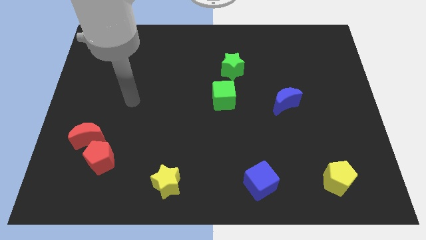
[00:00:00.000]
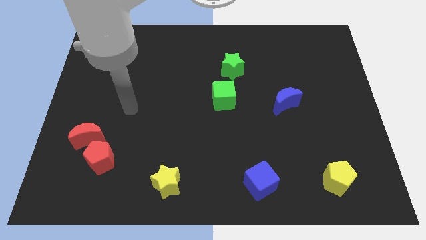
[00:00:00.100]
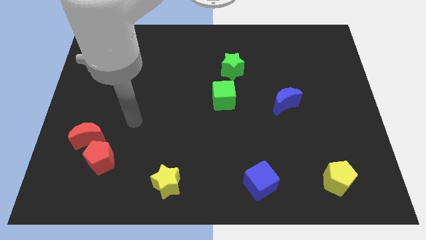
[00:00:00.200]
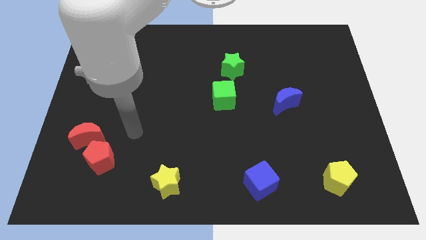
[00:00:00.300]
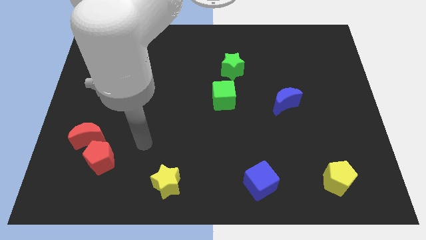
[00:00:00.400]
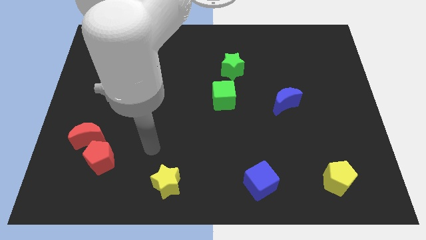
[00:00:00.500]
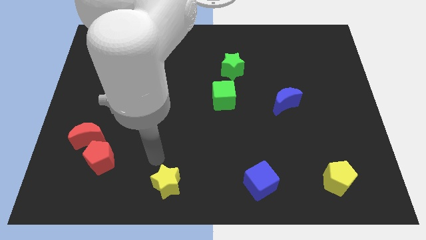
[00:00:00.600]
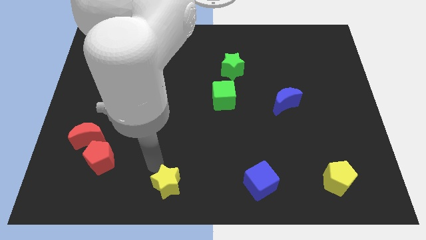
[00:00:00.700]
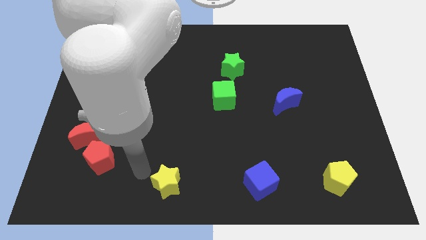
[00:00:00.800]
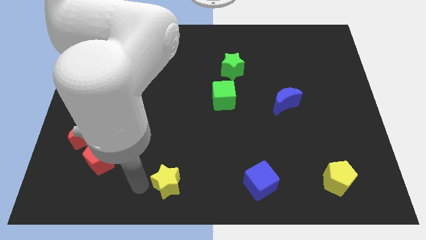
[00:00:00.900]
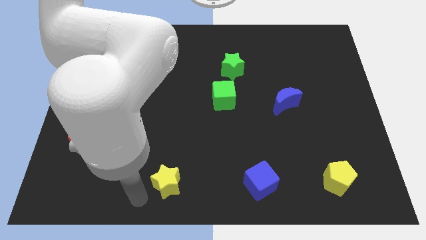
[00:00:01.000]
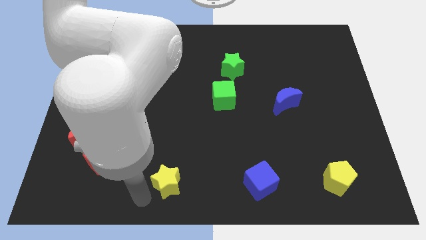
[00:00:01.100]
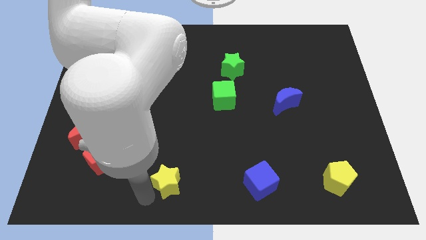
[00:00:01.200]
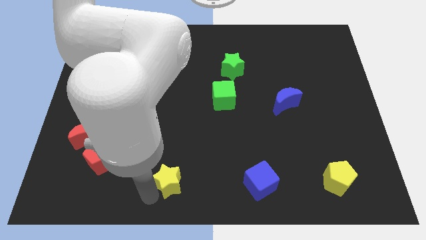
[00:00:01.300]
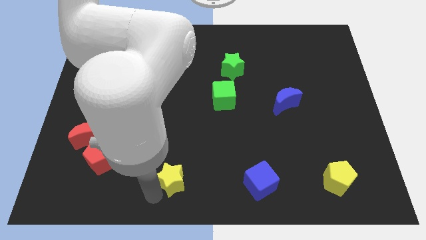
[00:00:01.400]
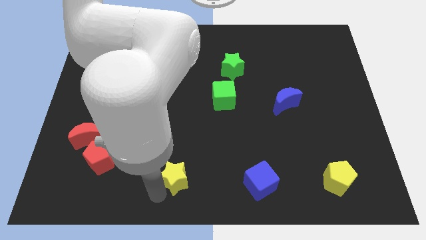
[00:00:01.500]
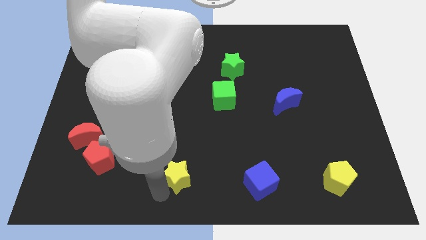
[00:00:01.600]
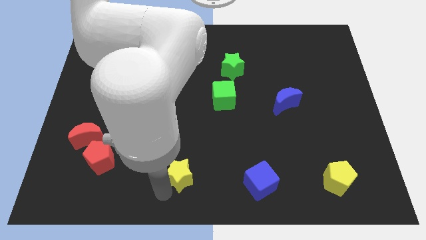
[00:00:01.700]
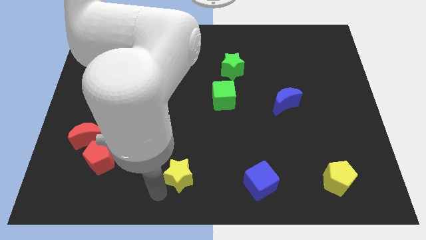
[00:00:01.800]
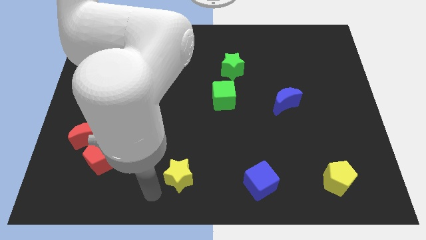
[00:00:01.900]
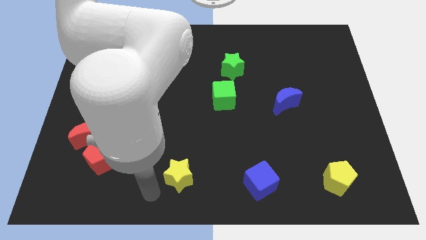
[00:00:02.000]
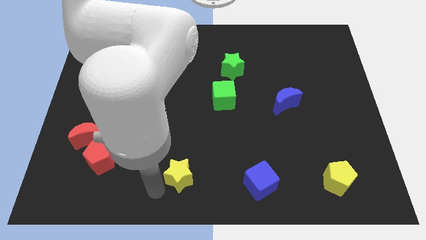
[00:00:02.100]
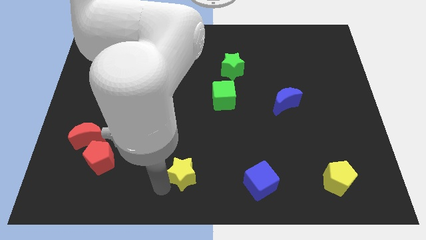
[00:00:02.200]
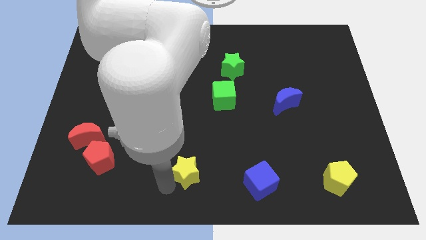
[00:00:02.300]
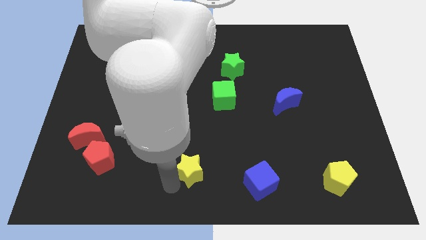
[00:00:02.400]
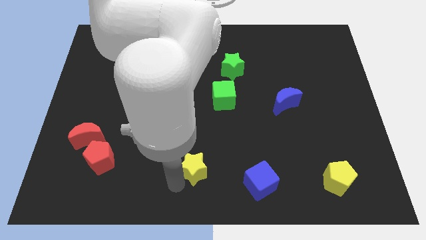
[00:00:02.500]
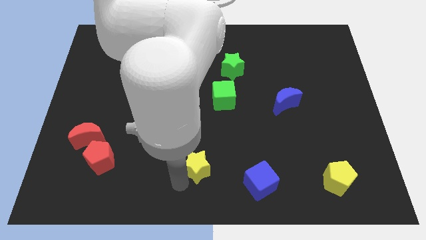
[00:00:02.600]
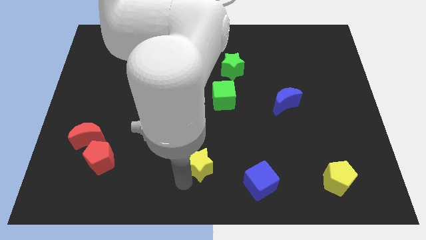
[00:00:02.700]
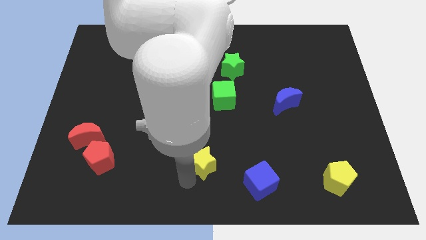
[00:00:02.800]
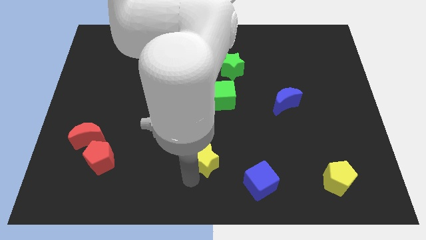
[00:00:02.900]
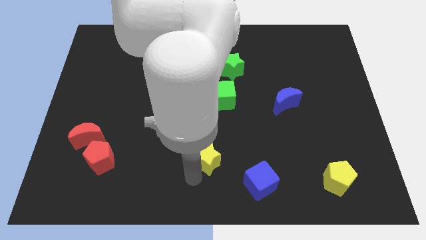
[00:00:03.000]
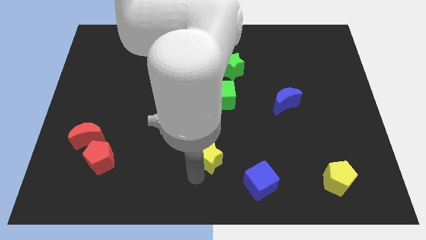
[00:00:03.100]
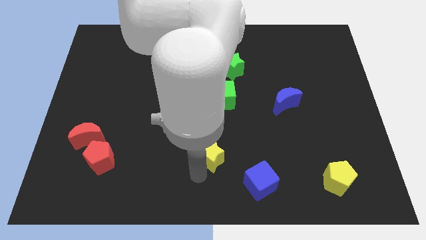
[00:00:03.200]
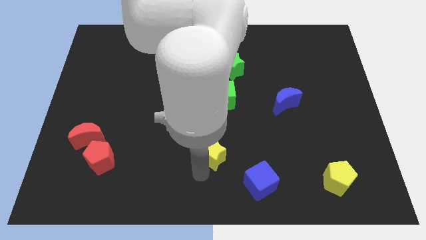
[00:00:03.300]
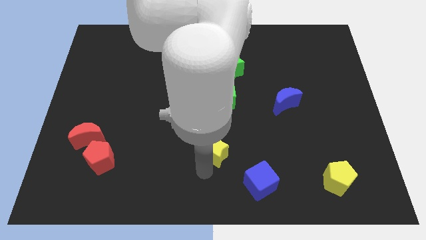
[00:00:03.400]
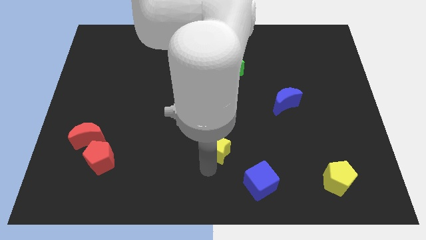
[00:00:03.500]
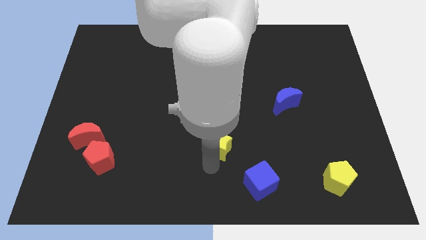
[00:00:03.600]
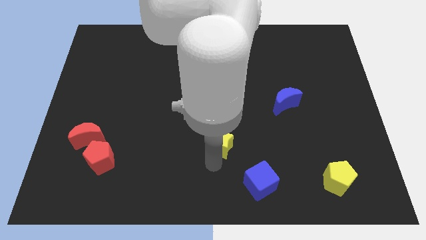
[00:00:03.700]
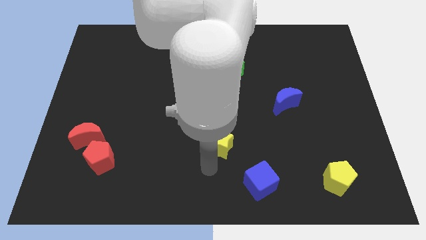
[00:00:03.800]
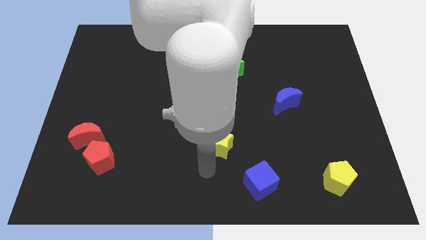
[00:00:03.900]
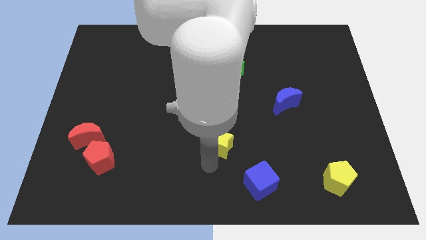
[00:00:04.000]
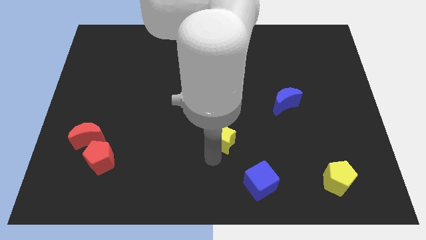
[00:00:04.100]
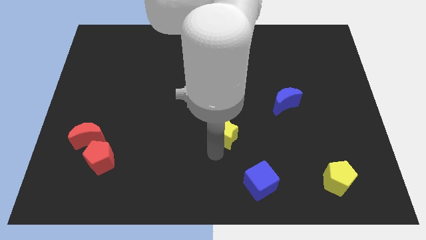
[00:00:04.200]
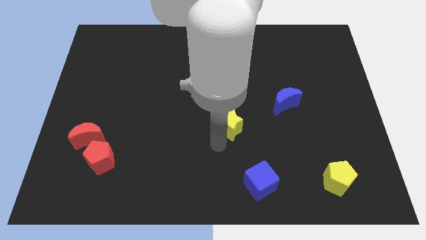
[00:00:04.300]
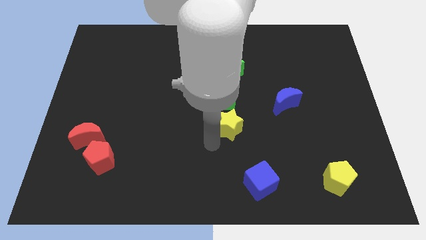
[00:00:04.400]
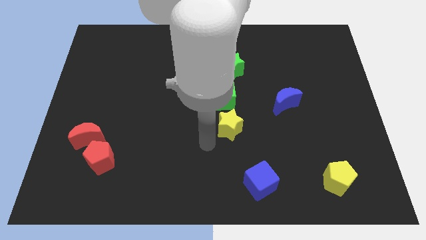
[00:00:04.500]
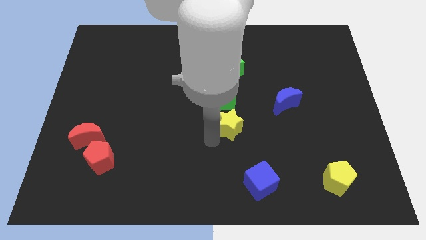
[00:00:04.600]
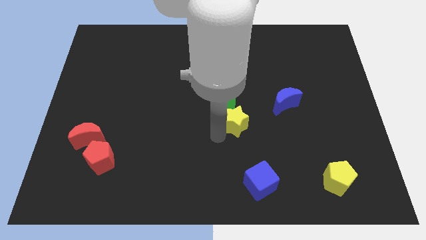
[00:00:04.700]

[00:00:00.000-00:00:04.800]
push the yellow star diagonally upwards and right

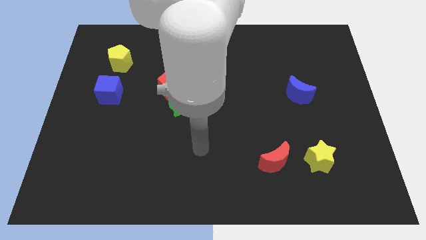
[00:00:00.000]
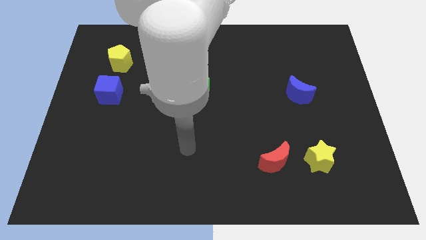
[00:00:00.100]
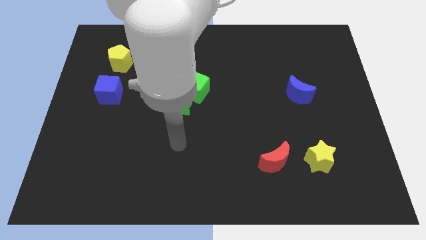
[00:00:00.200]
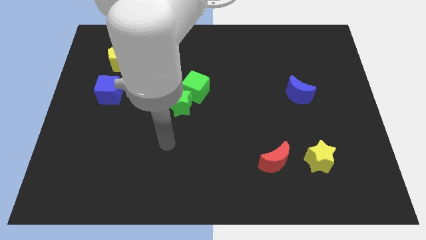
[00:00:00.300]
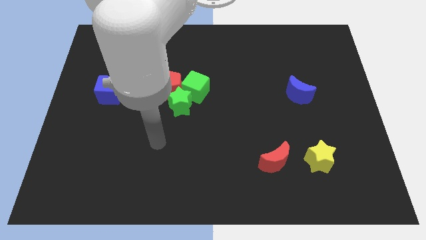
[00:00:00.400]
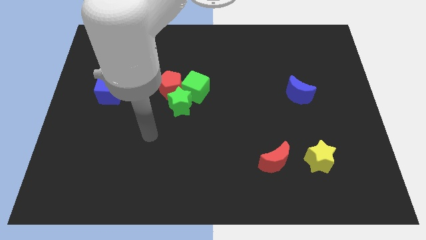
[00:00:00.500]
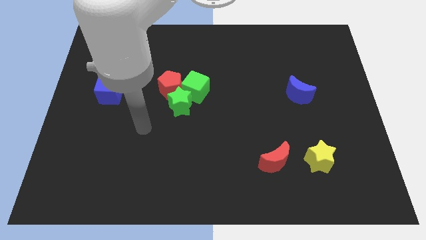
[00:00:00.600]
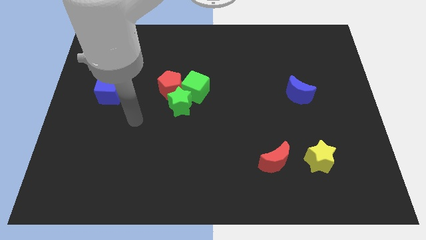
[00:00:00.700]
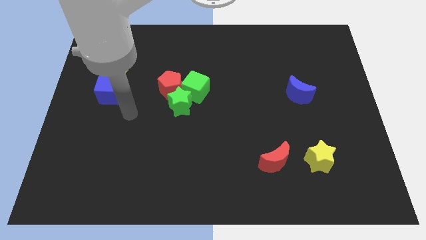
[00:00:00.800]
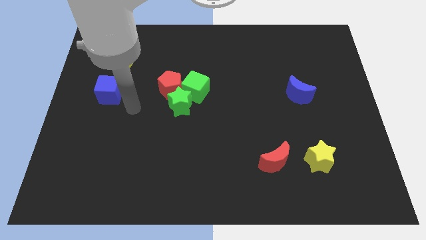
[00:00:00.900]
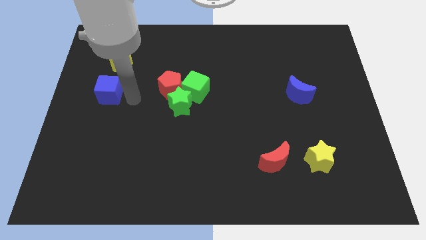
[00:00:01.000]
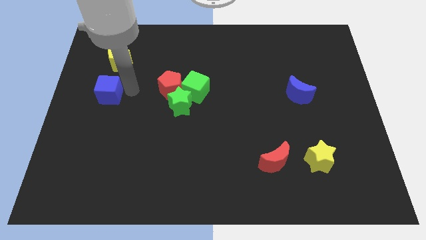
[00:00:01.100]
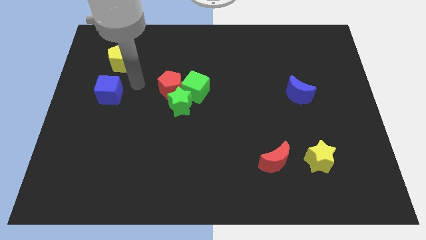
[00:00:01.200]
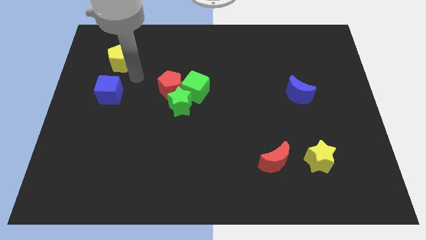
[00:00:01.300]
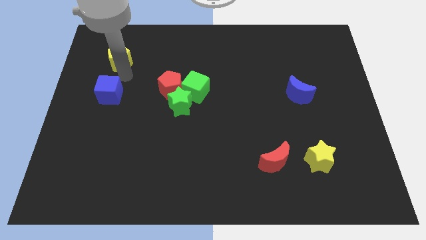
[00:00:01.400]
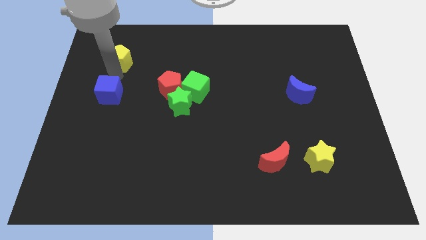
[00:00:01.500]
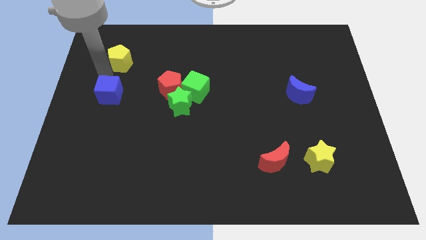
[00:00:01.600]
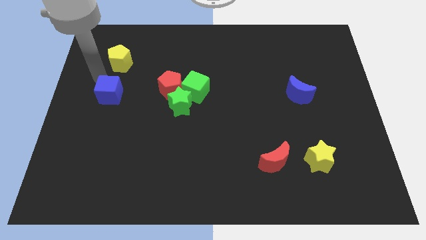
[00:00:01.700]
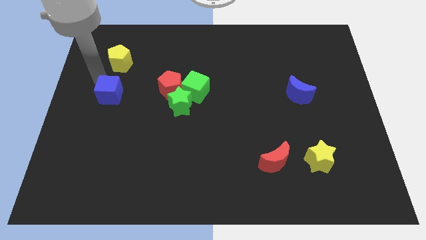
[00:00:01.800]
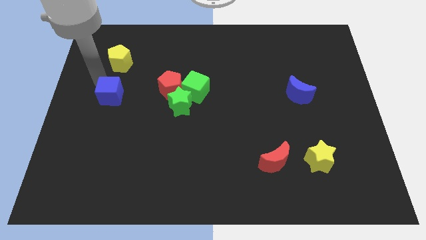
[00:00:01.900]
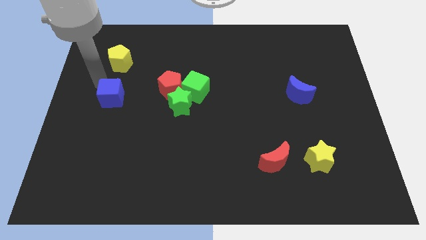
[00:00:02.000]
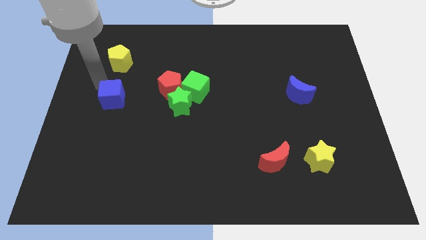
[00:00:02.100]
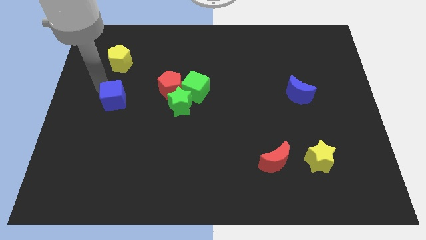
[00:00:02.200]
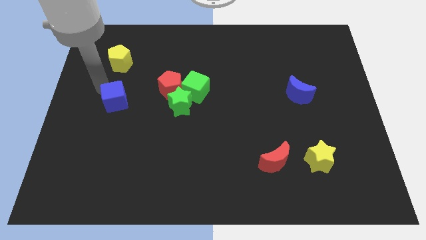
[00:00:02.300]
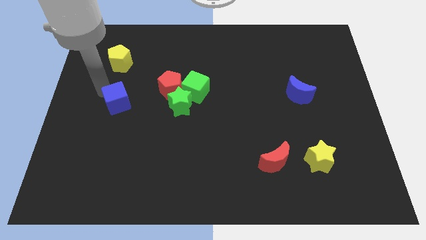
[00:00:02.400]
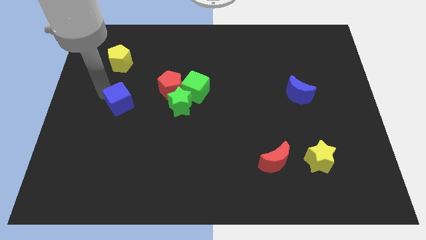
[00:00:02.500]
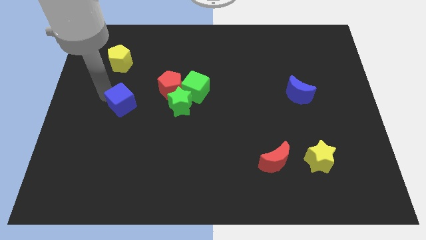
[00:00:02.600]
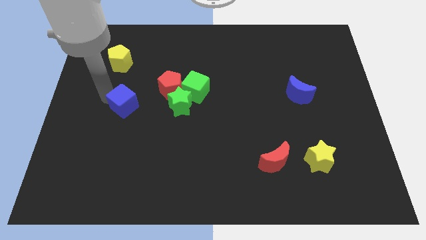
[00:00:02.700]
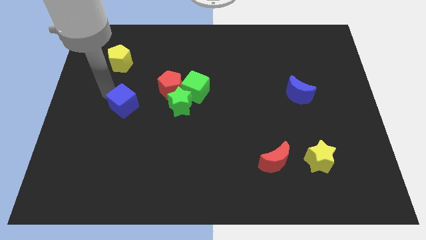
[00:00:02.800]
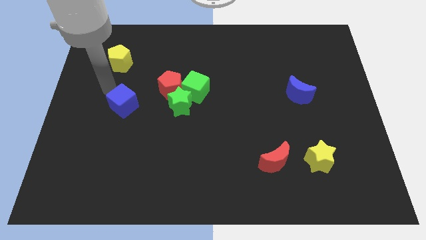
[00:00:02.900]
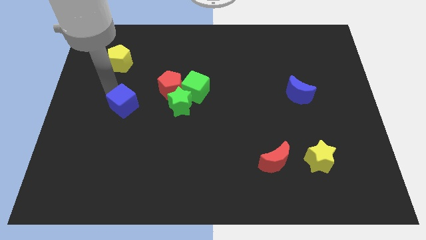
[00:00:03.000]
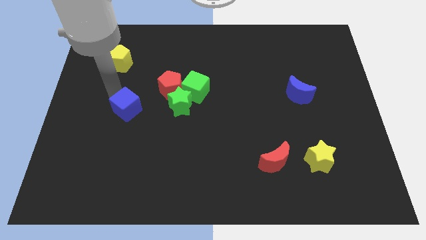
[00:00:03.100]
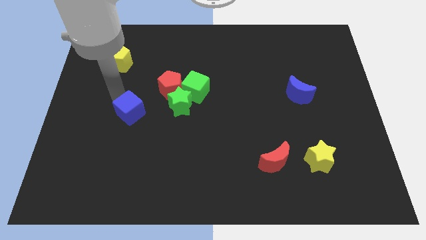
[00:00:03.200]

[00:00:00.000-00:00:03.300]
slide the blue cube diagonally down and to the right somewhat
